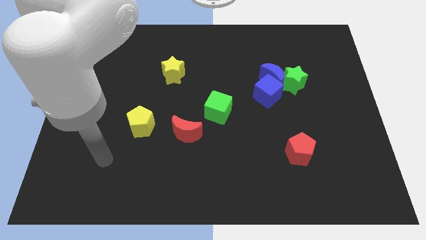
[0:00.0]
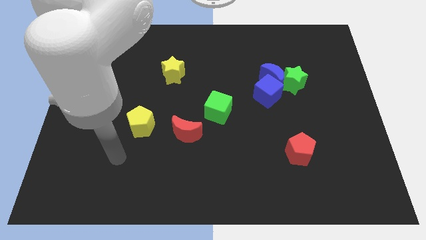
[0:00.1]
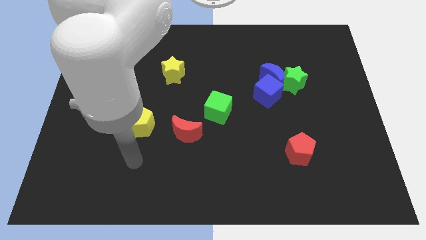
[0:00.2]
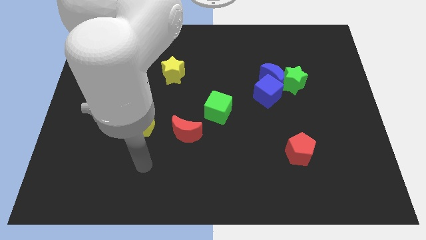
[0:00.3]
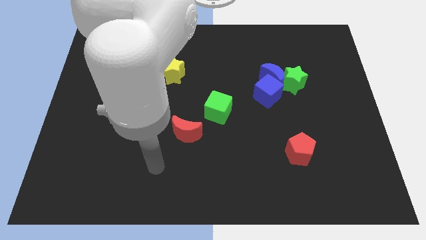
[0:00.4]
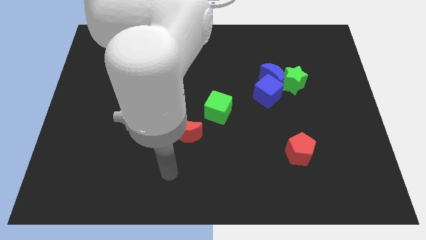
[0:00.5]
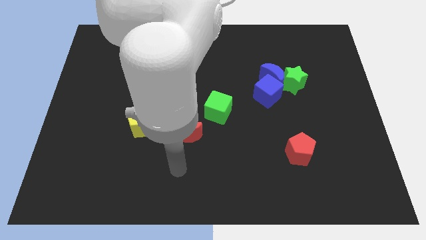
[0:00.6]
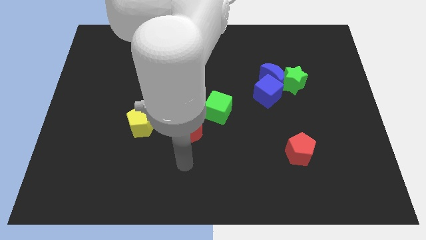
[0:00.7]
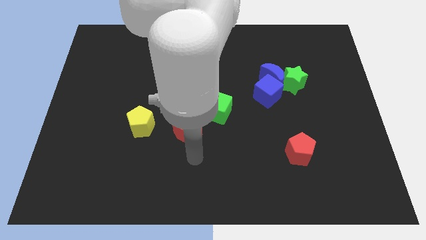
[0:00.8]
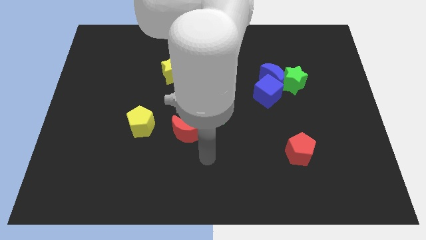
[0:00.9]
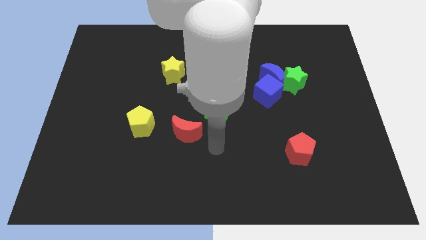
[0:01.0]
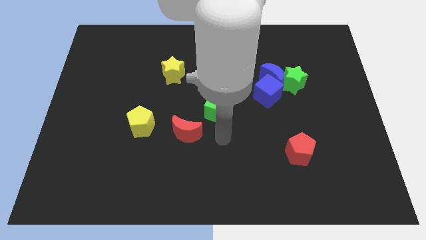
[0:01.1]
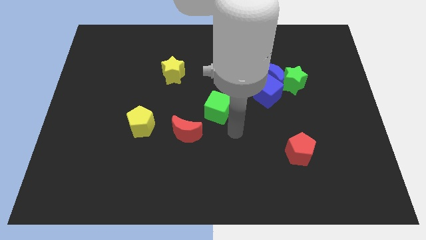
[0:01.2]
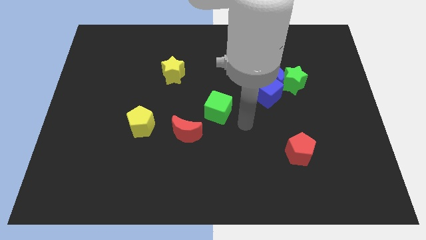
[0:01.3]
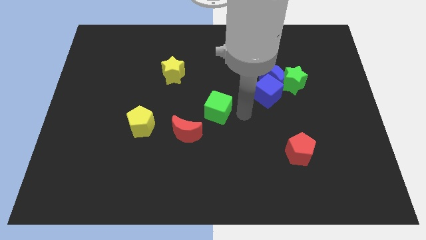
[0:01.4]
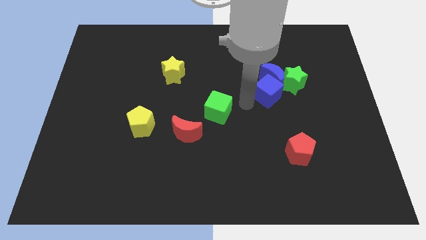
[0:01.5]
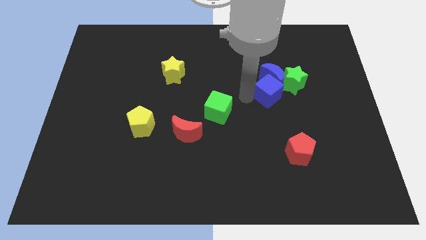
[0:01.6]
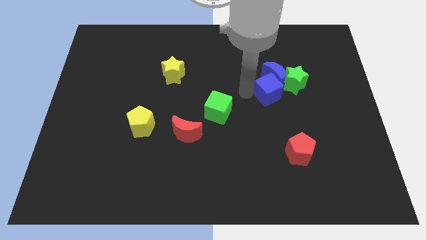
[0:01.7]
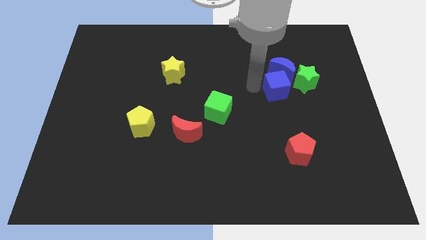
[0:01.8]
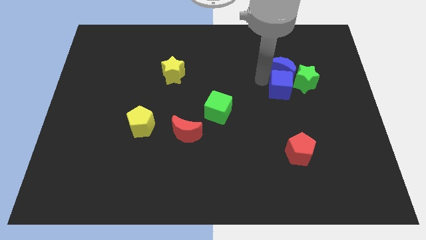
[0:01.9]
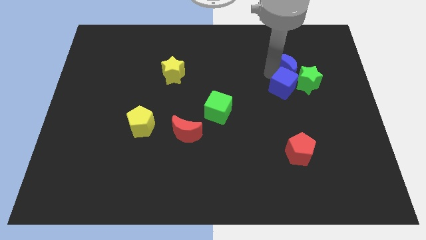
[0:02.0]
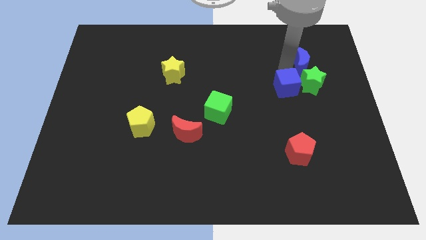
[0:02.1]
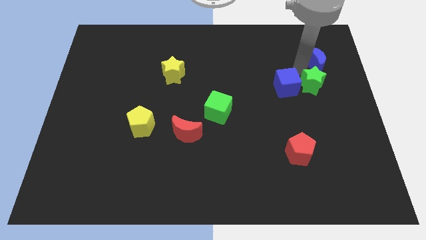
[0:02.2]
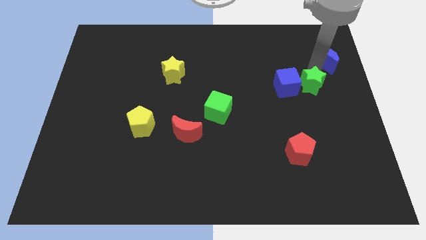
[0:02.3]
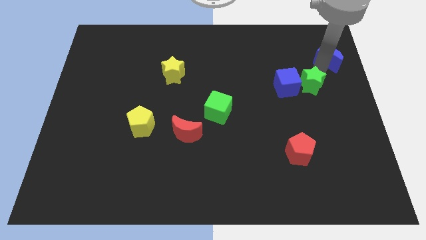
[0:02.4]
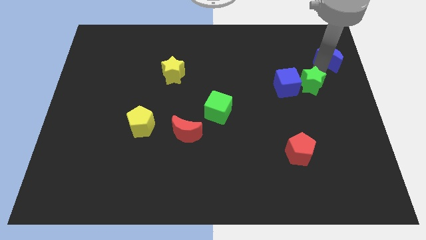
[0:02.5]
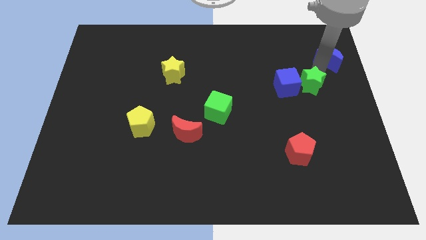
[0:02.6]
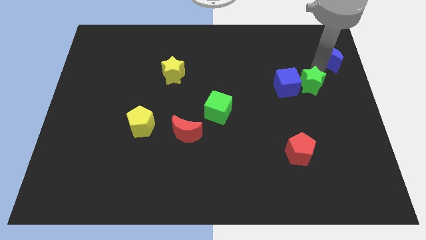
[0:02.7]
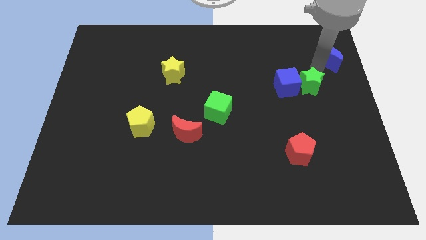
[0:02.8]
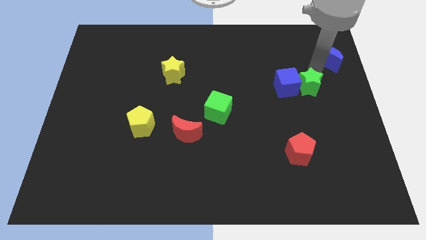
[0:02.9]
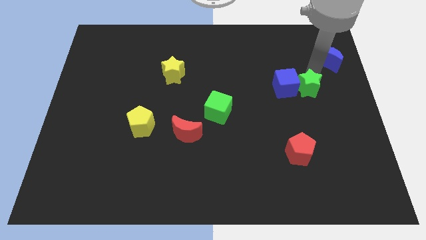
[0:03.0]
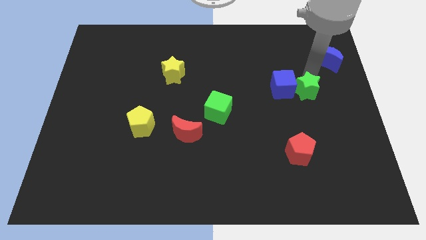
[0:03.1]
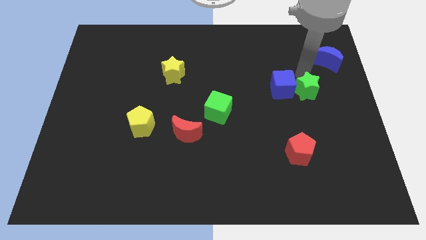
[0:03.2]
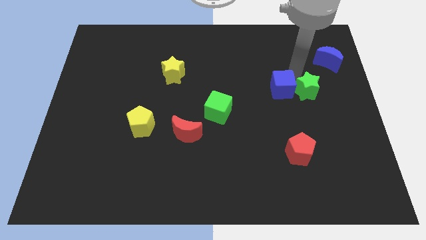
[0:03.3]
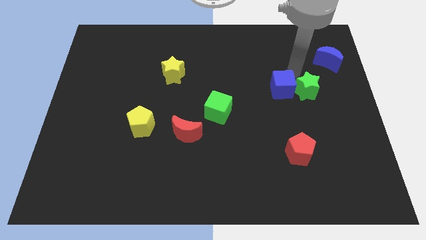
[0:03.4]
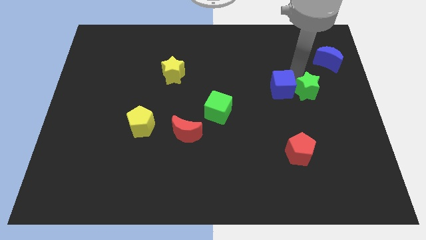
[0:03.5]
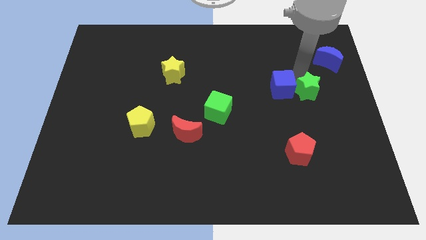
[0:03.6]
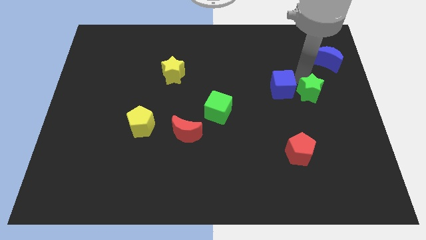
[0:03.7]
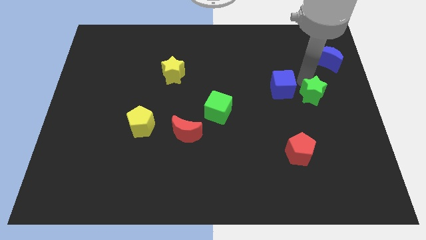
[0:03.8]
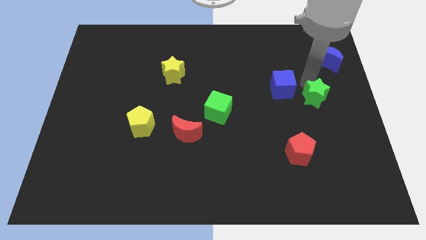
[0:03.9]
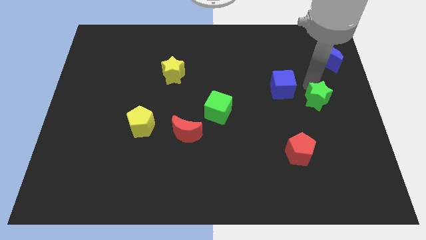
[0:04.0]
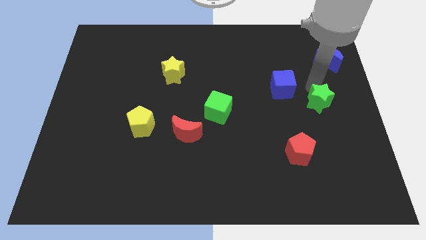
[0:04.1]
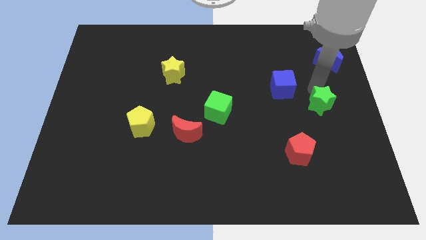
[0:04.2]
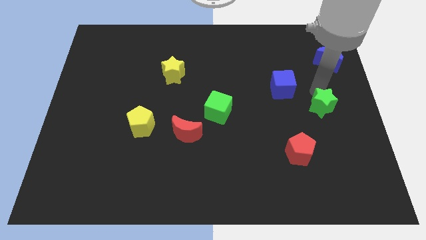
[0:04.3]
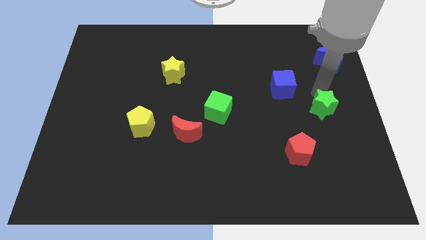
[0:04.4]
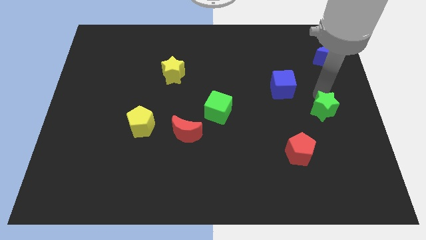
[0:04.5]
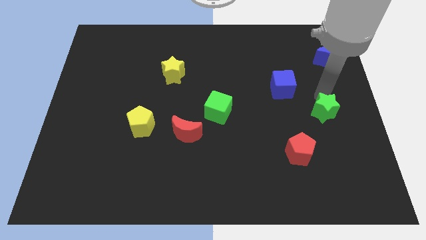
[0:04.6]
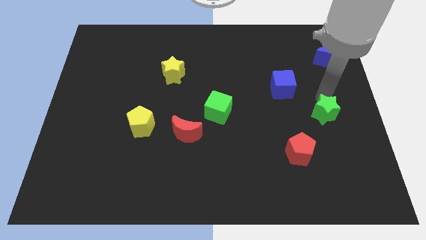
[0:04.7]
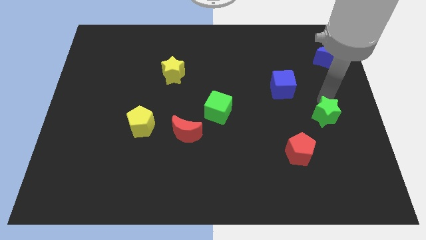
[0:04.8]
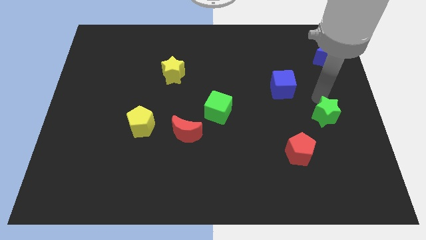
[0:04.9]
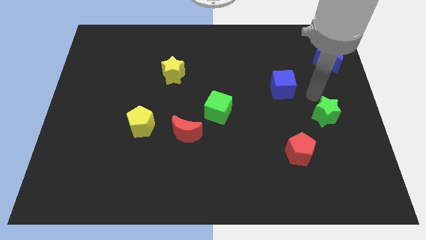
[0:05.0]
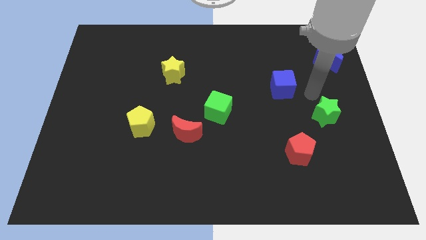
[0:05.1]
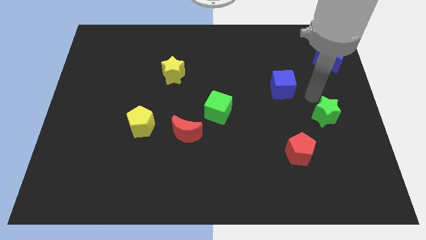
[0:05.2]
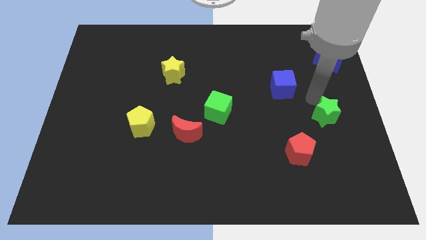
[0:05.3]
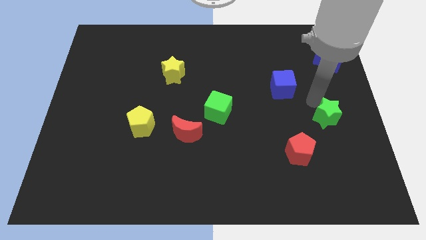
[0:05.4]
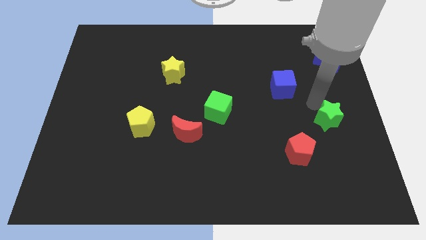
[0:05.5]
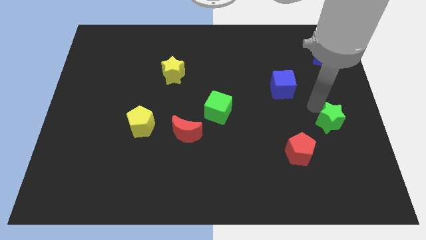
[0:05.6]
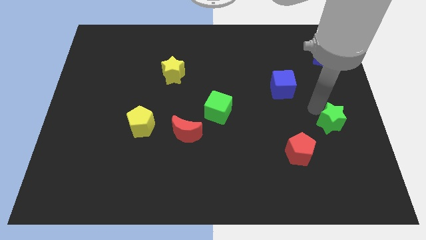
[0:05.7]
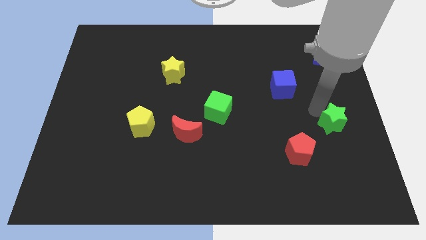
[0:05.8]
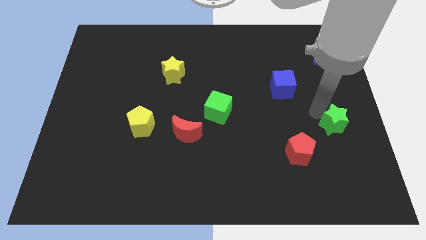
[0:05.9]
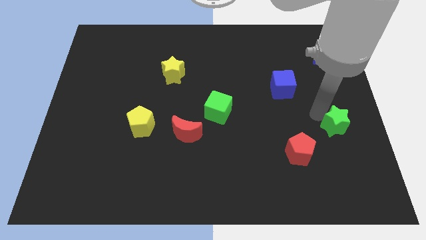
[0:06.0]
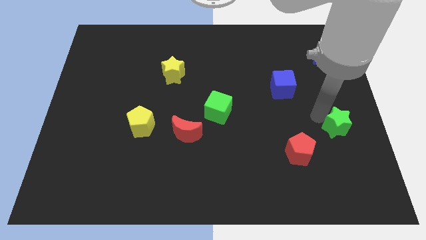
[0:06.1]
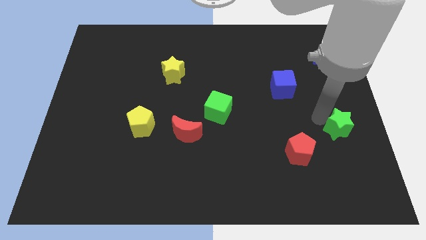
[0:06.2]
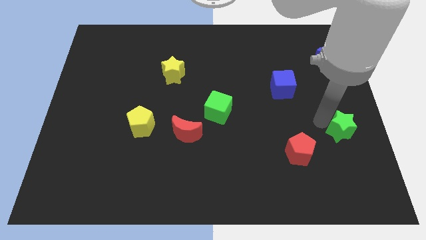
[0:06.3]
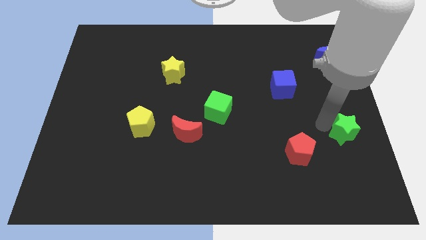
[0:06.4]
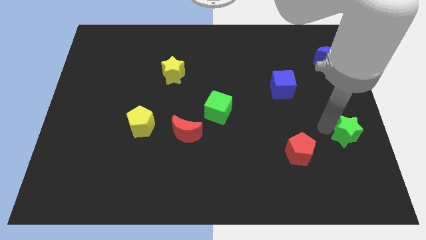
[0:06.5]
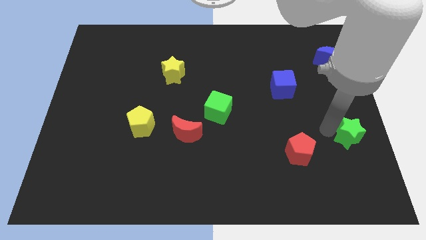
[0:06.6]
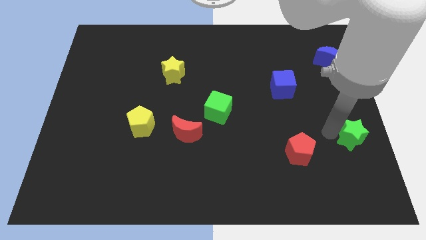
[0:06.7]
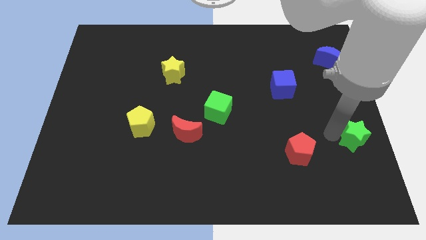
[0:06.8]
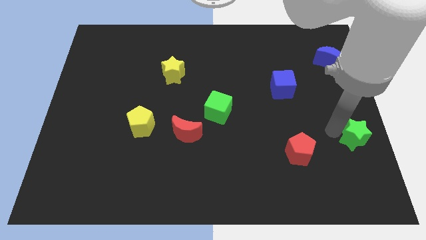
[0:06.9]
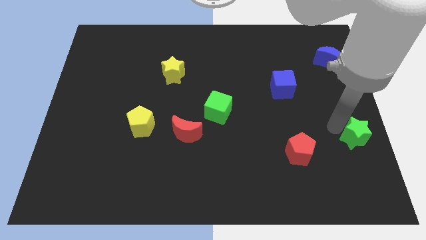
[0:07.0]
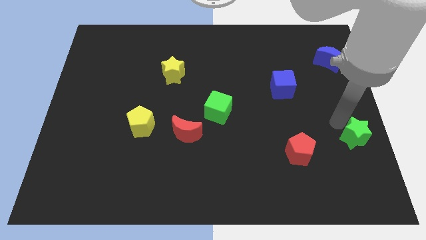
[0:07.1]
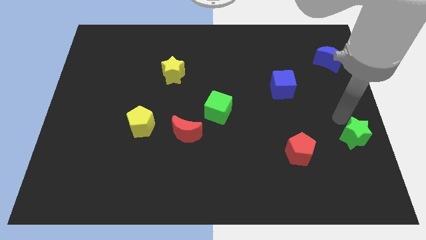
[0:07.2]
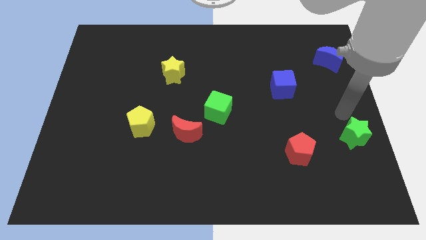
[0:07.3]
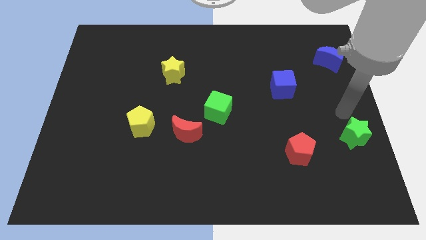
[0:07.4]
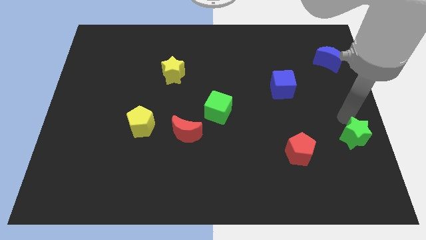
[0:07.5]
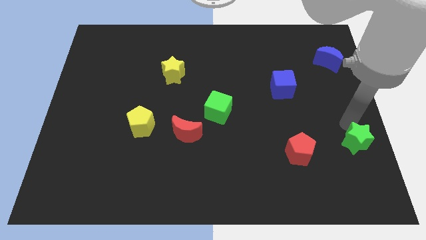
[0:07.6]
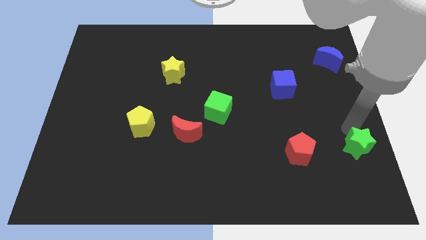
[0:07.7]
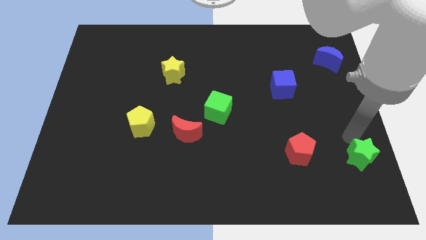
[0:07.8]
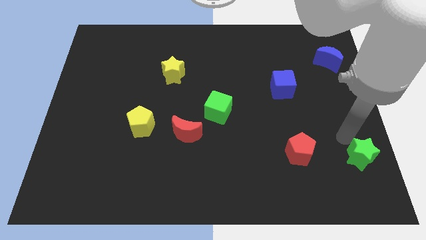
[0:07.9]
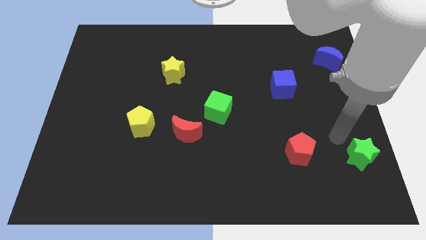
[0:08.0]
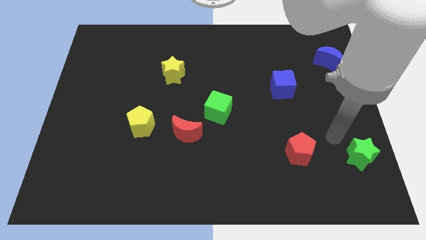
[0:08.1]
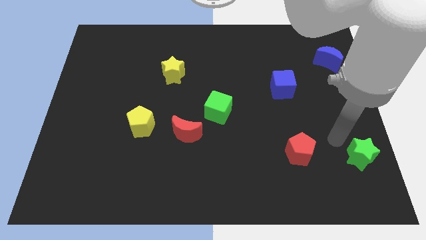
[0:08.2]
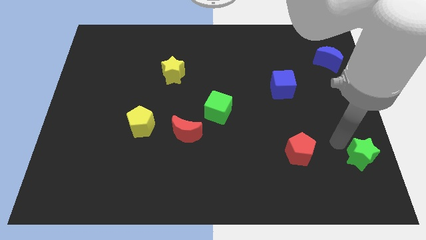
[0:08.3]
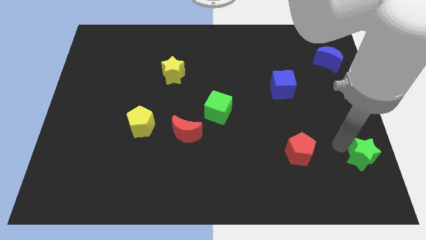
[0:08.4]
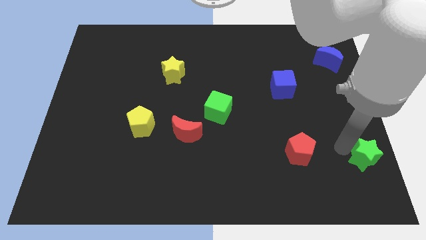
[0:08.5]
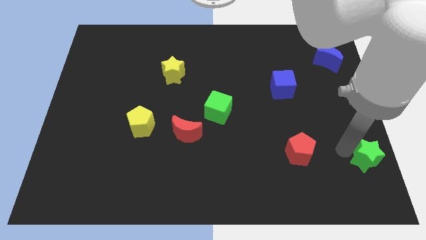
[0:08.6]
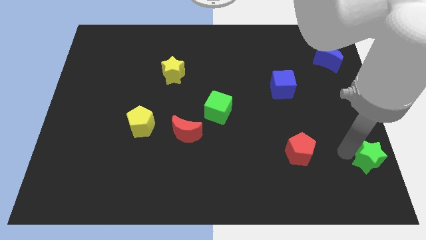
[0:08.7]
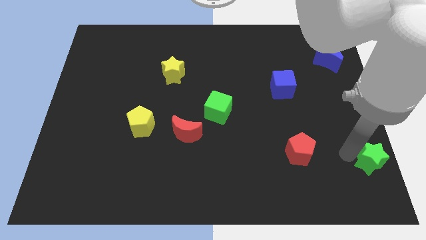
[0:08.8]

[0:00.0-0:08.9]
push the green star to the bottom right corner
